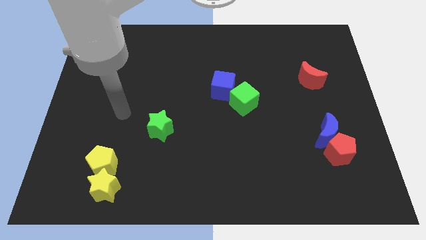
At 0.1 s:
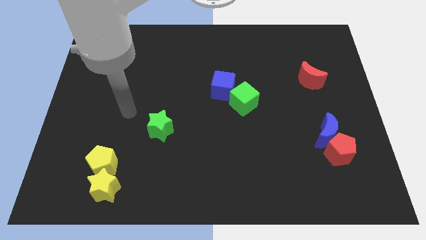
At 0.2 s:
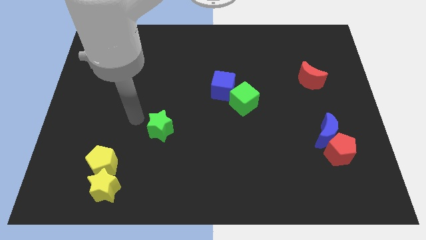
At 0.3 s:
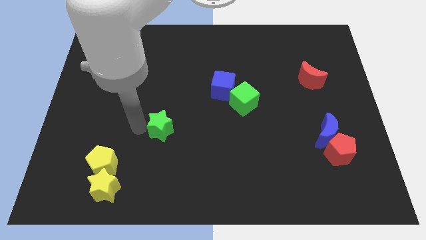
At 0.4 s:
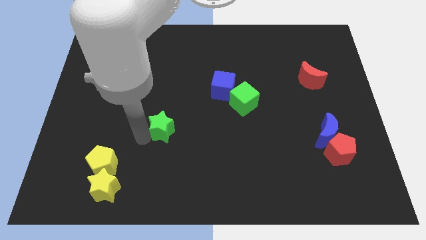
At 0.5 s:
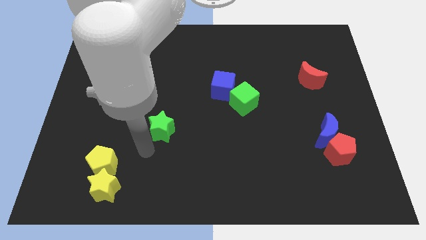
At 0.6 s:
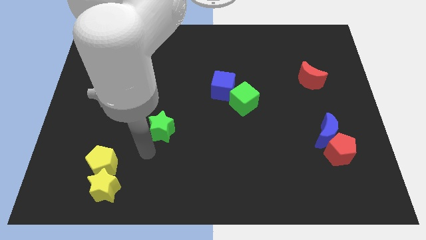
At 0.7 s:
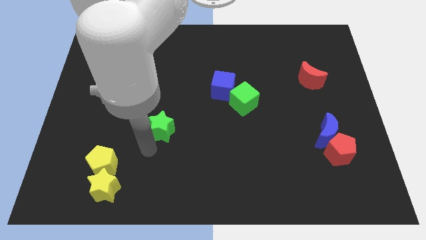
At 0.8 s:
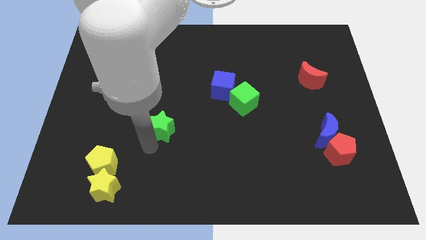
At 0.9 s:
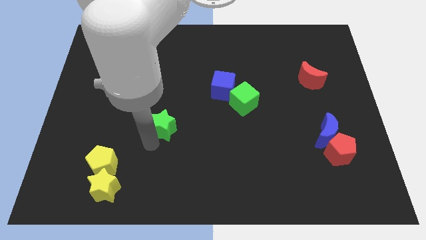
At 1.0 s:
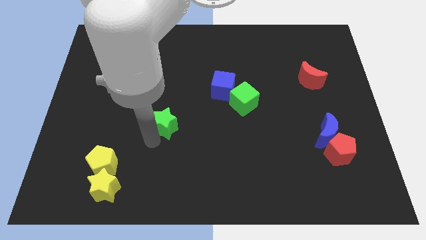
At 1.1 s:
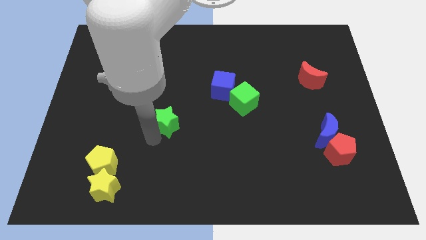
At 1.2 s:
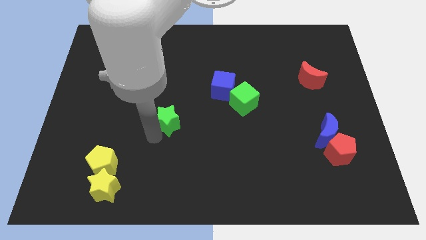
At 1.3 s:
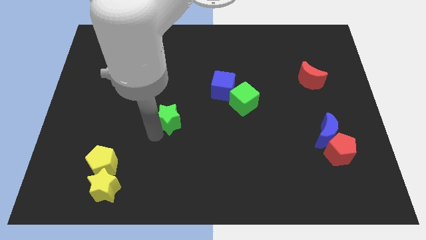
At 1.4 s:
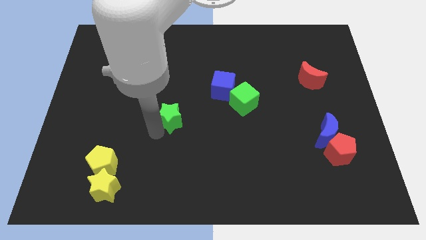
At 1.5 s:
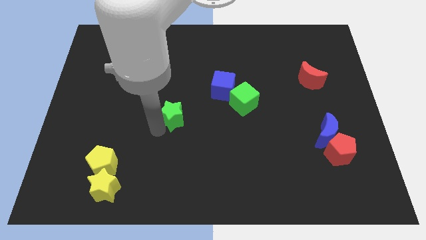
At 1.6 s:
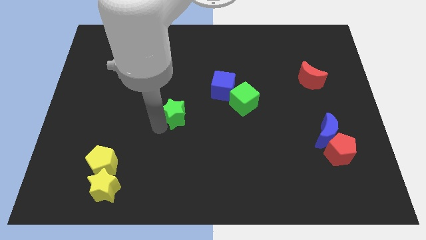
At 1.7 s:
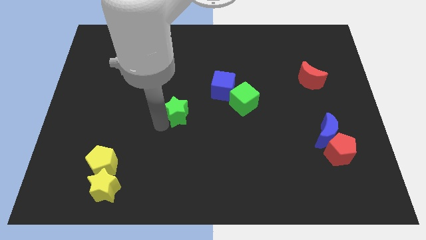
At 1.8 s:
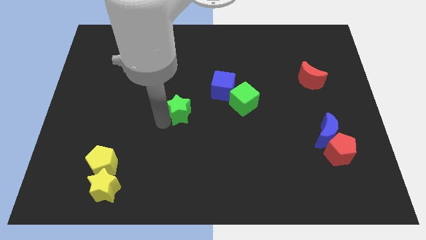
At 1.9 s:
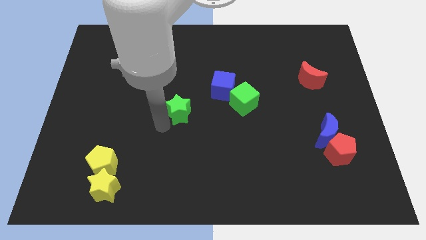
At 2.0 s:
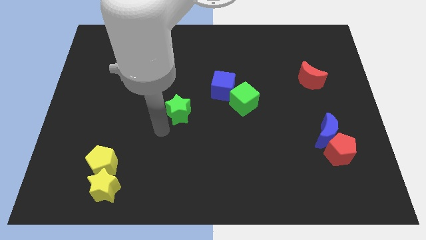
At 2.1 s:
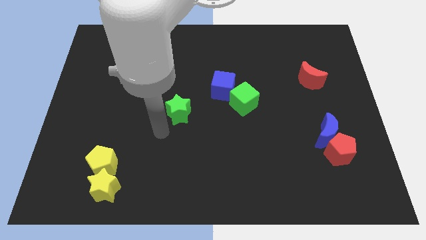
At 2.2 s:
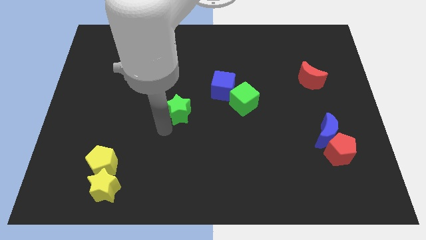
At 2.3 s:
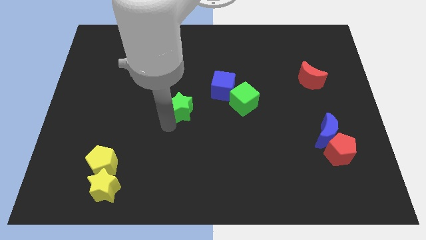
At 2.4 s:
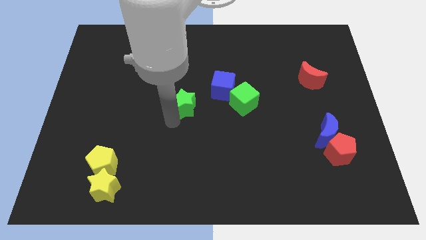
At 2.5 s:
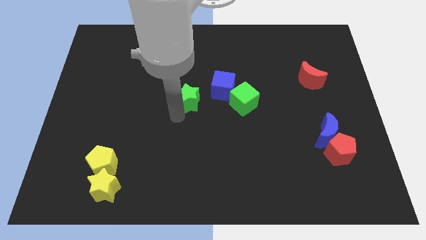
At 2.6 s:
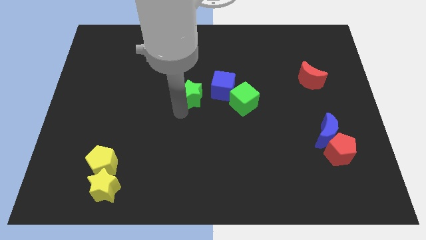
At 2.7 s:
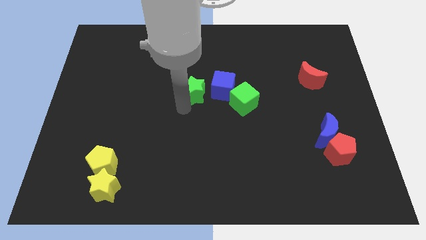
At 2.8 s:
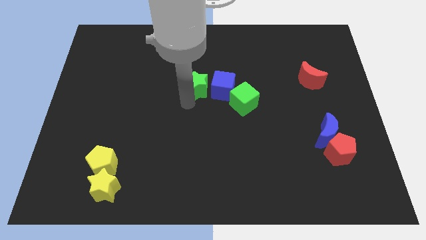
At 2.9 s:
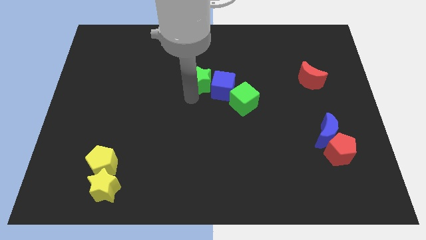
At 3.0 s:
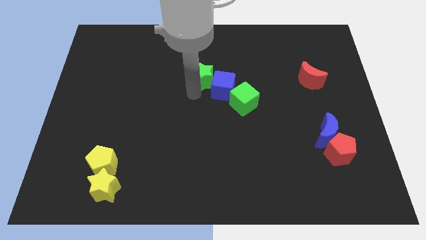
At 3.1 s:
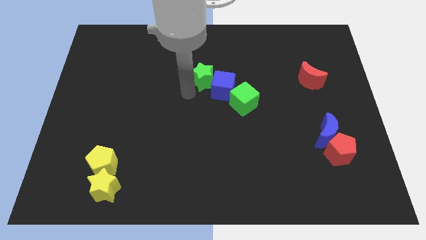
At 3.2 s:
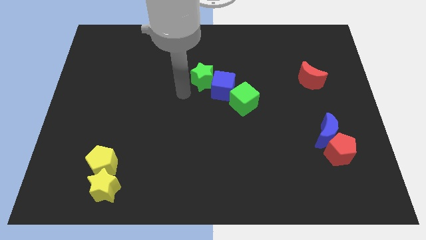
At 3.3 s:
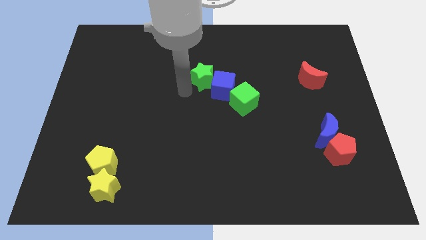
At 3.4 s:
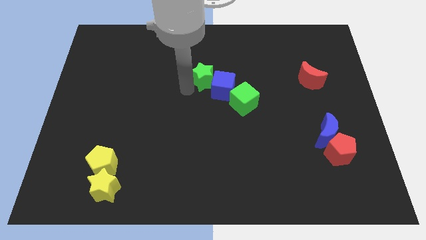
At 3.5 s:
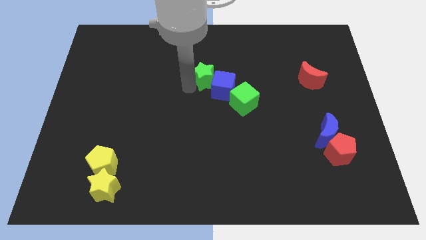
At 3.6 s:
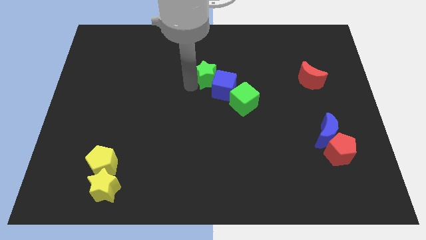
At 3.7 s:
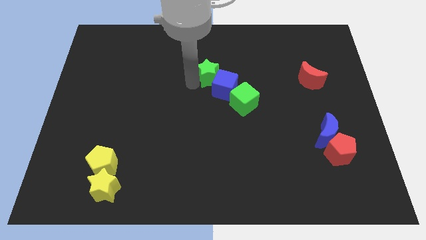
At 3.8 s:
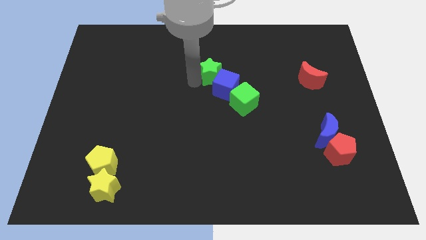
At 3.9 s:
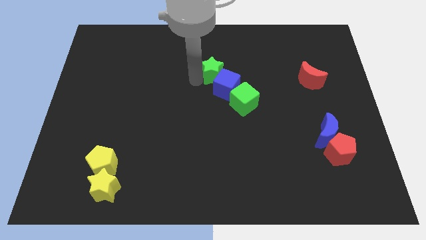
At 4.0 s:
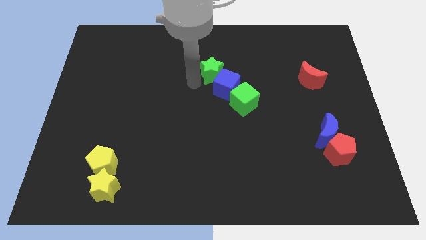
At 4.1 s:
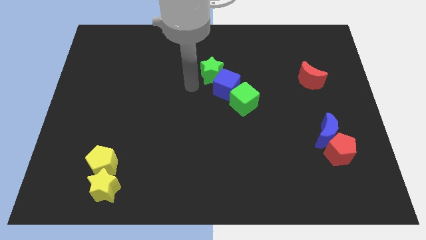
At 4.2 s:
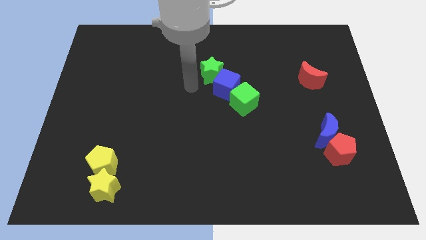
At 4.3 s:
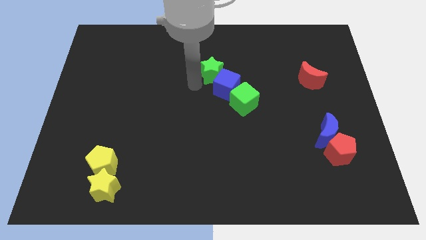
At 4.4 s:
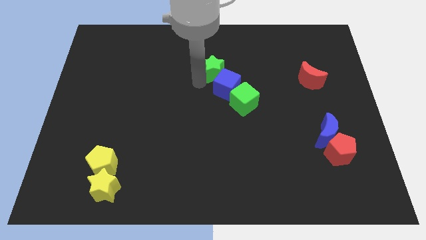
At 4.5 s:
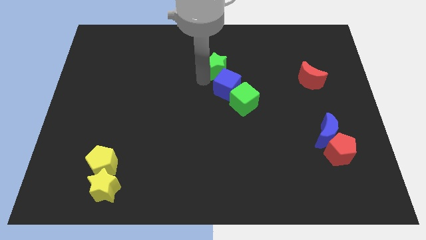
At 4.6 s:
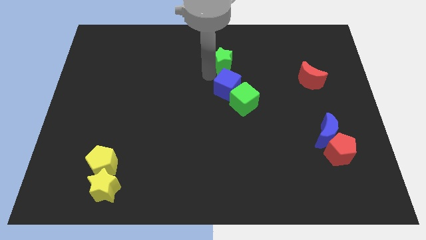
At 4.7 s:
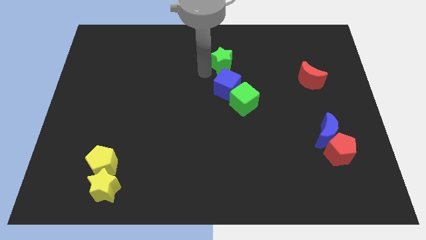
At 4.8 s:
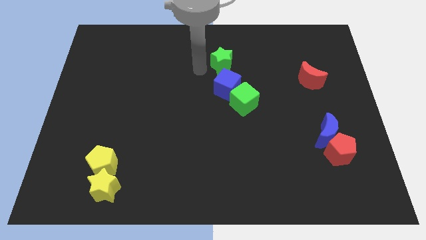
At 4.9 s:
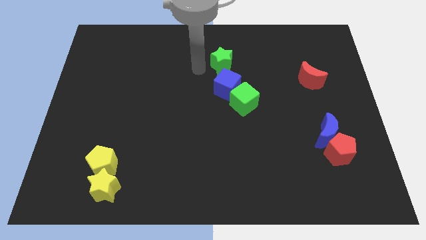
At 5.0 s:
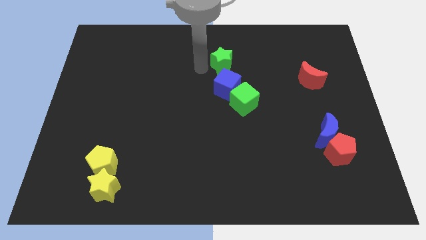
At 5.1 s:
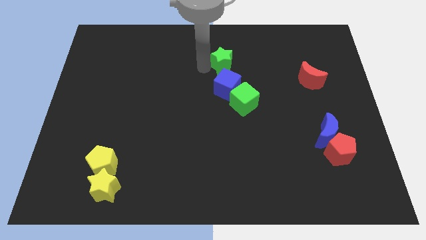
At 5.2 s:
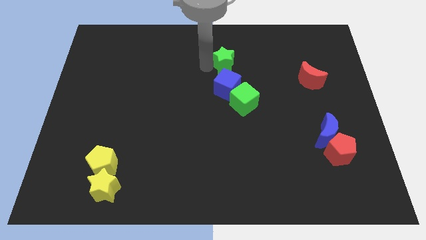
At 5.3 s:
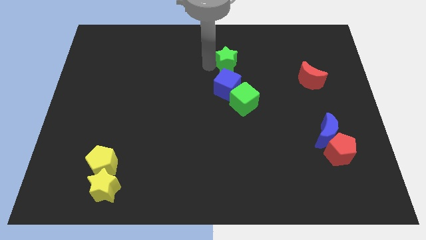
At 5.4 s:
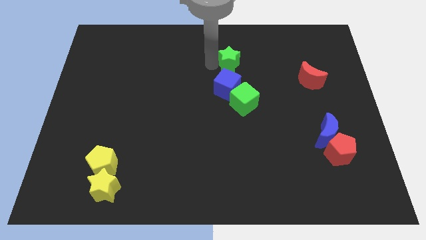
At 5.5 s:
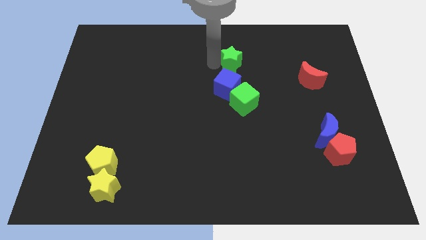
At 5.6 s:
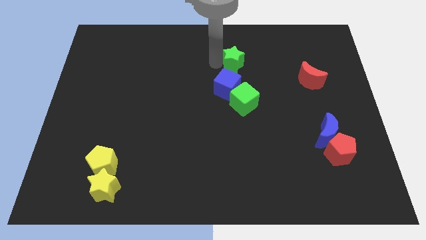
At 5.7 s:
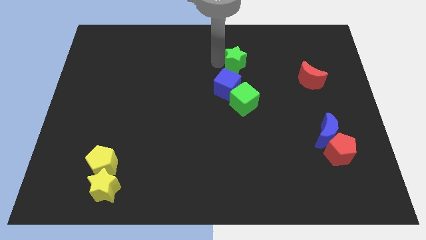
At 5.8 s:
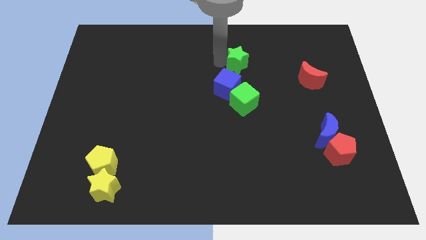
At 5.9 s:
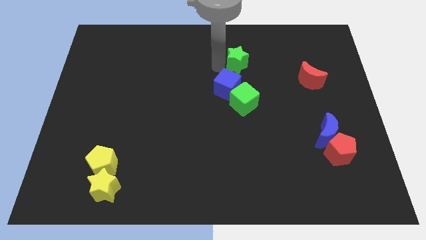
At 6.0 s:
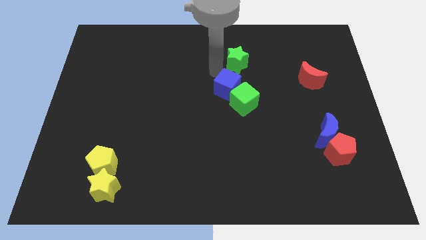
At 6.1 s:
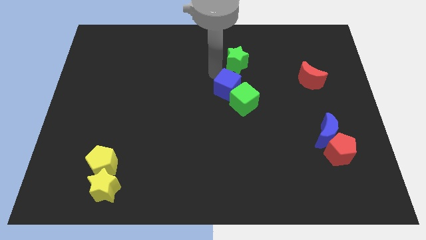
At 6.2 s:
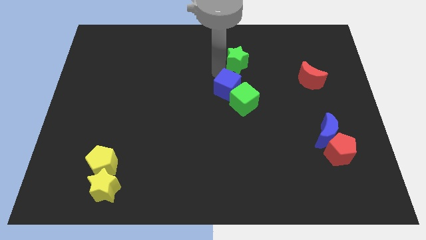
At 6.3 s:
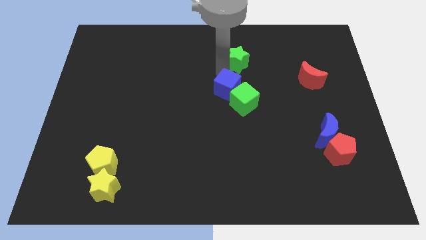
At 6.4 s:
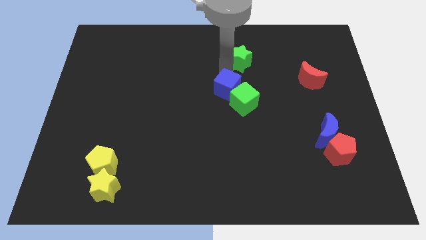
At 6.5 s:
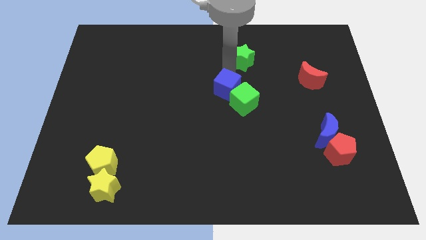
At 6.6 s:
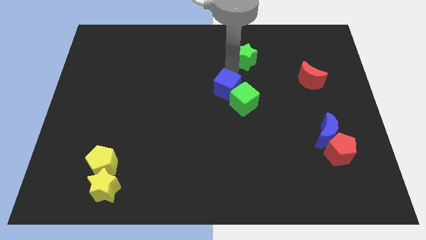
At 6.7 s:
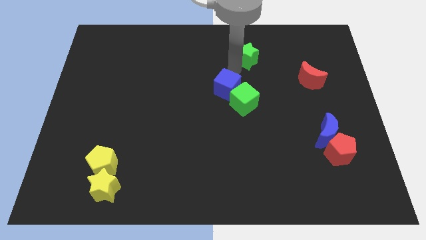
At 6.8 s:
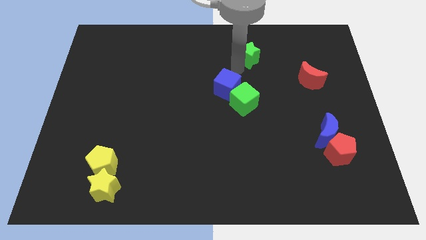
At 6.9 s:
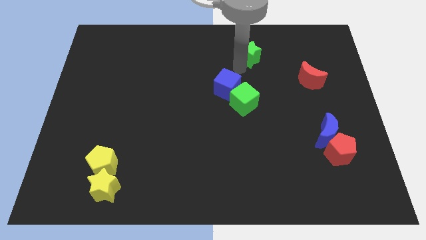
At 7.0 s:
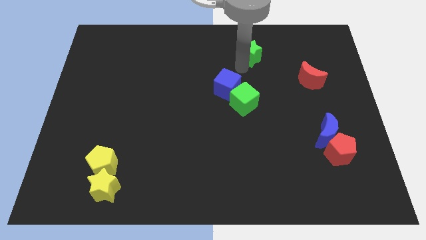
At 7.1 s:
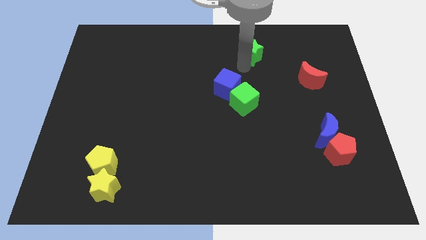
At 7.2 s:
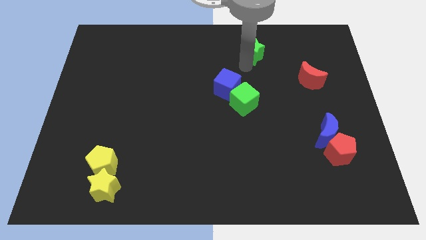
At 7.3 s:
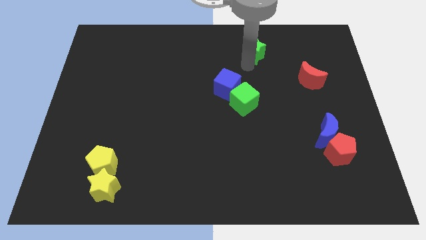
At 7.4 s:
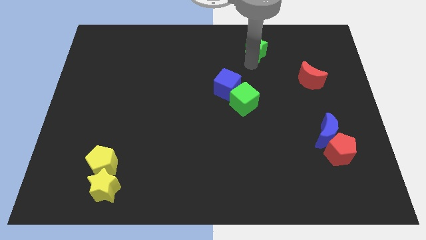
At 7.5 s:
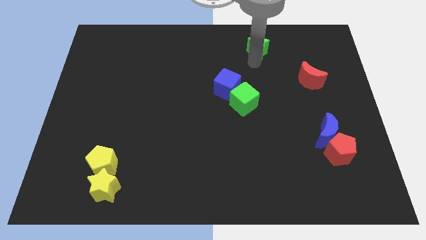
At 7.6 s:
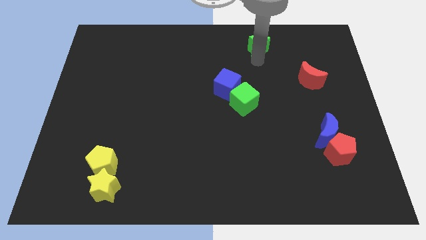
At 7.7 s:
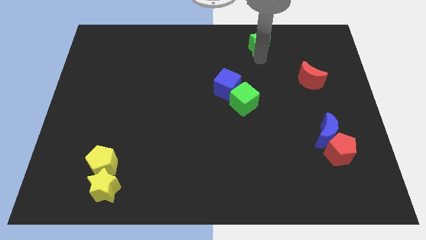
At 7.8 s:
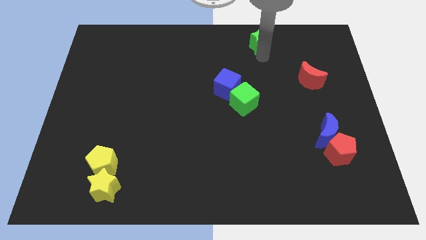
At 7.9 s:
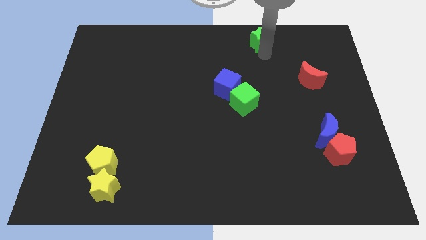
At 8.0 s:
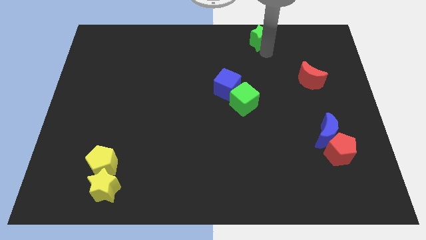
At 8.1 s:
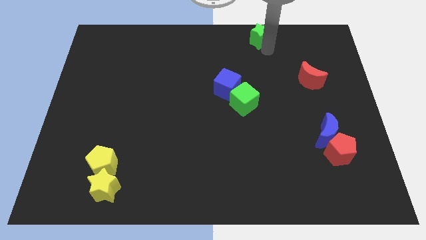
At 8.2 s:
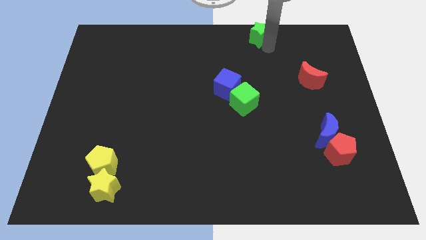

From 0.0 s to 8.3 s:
push the green star to the towards your base
